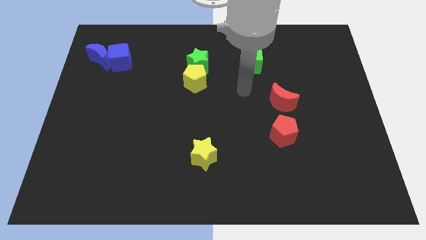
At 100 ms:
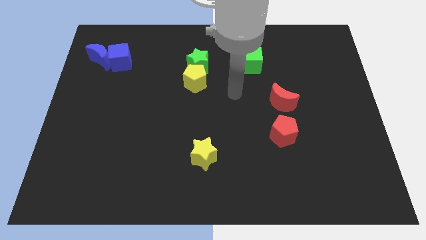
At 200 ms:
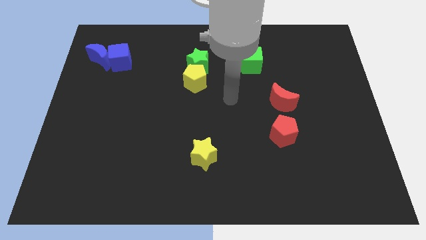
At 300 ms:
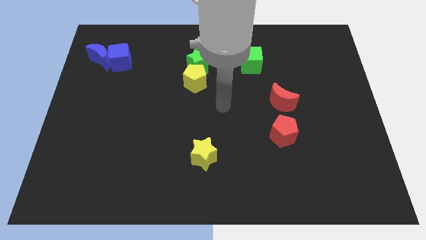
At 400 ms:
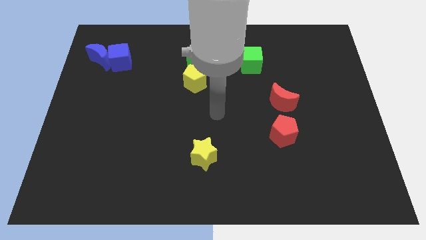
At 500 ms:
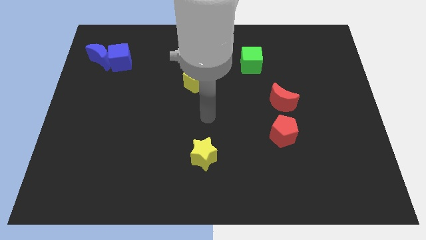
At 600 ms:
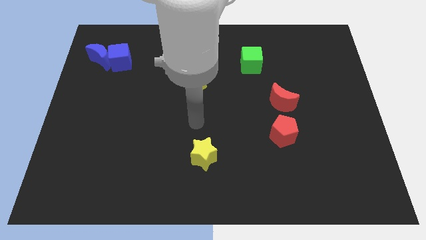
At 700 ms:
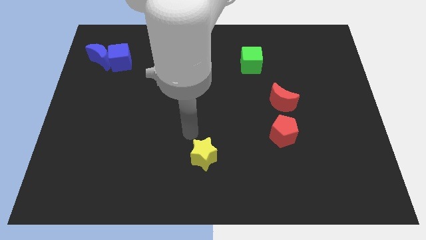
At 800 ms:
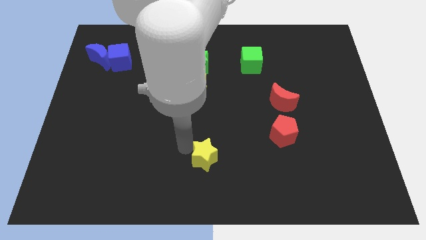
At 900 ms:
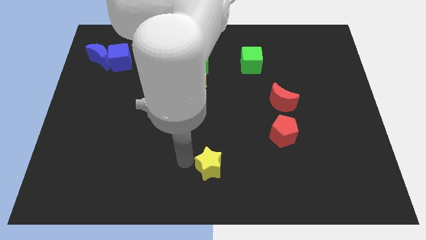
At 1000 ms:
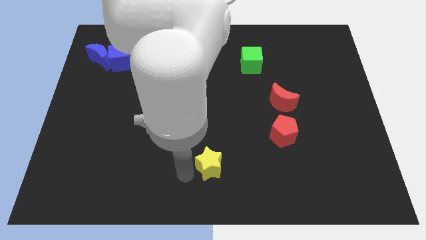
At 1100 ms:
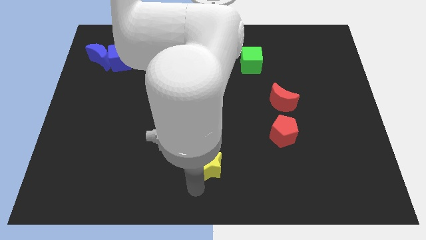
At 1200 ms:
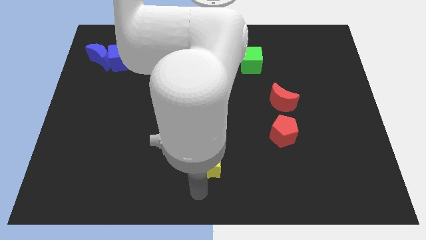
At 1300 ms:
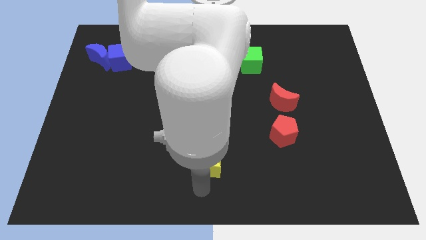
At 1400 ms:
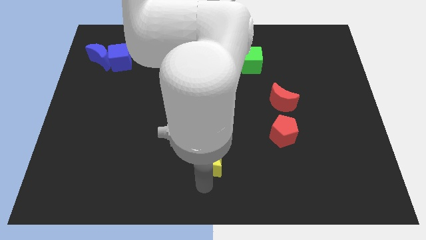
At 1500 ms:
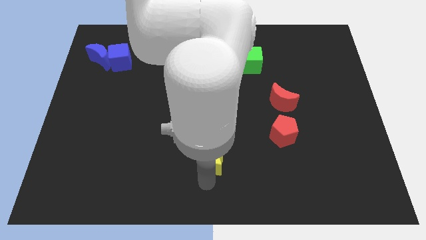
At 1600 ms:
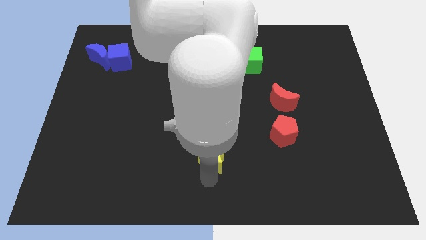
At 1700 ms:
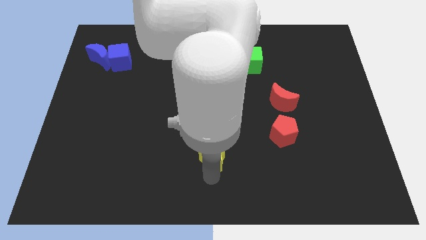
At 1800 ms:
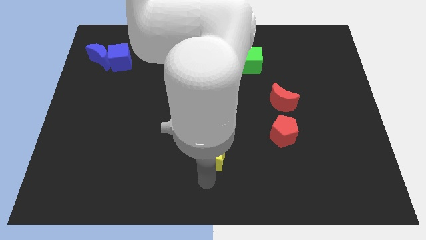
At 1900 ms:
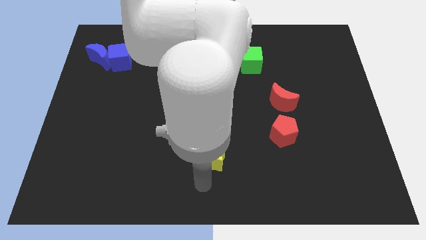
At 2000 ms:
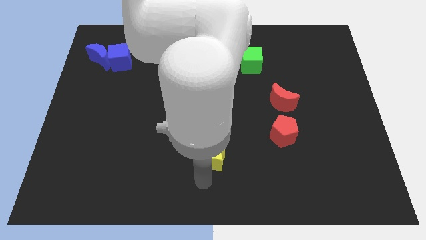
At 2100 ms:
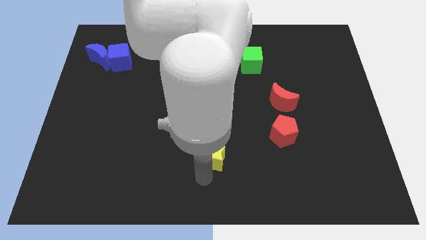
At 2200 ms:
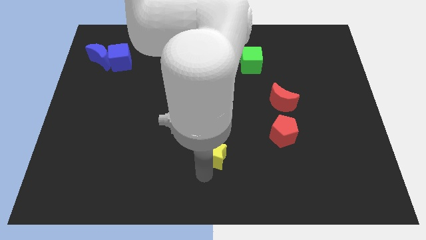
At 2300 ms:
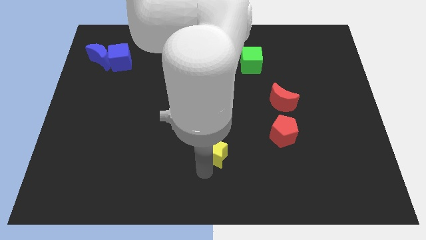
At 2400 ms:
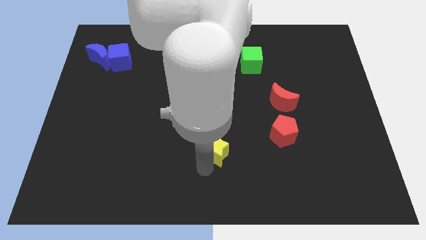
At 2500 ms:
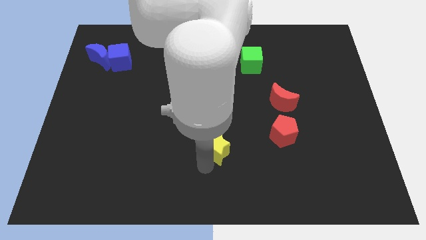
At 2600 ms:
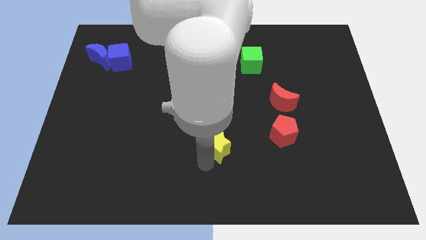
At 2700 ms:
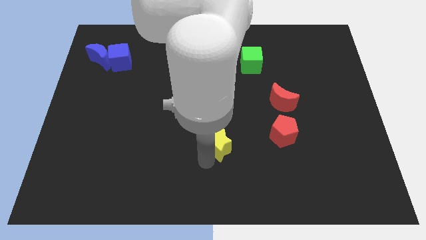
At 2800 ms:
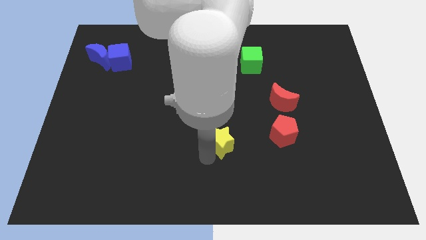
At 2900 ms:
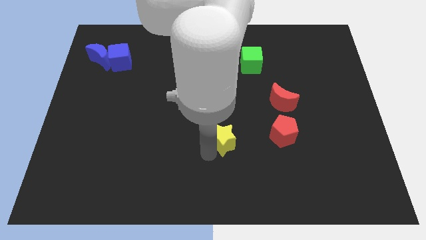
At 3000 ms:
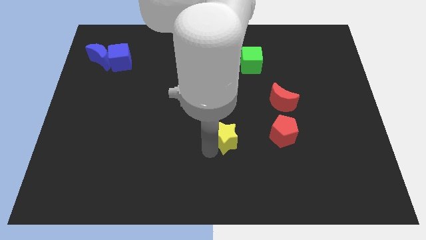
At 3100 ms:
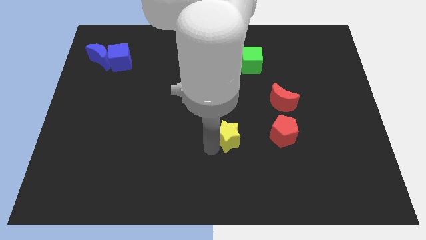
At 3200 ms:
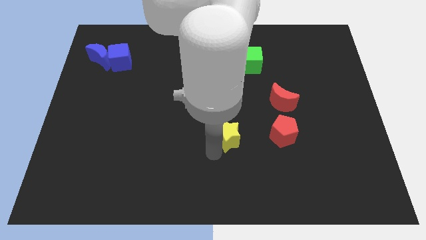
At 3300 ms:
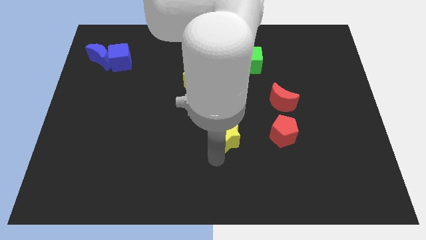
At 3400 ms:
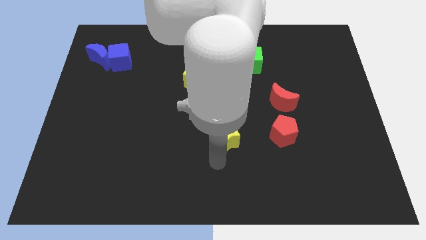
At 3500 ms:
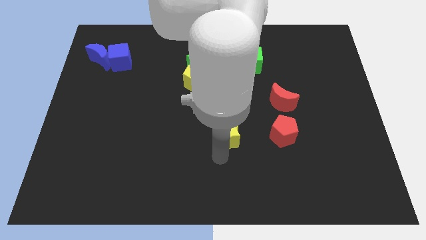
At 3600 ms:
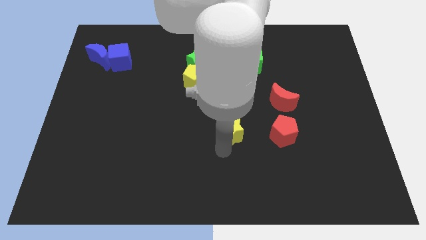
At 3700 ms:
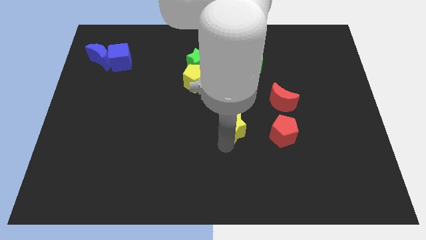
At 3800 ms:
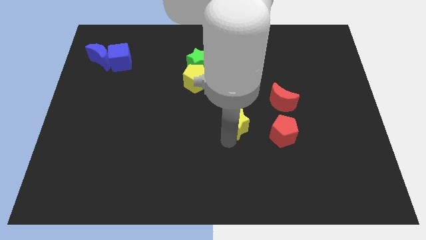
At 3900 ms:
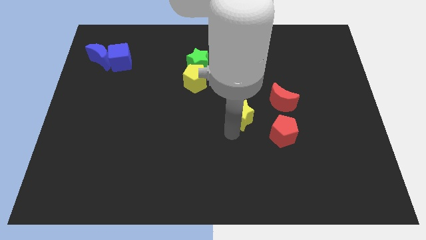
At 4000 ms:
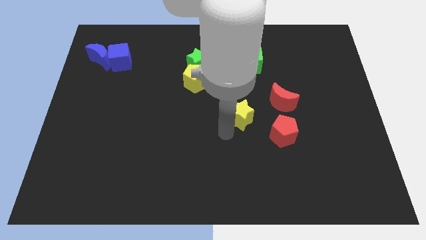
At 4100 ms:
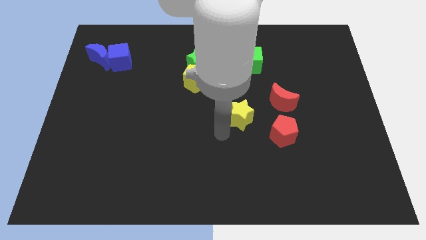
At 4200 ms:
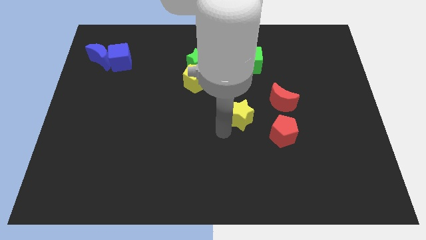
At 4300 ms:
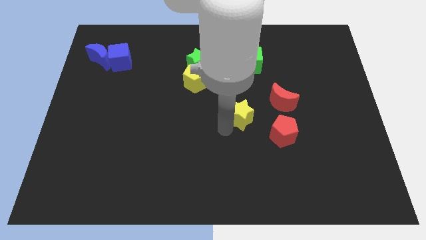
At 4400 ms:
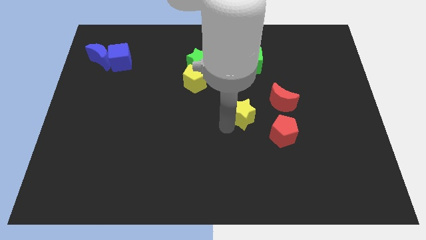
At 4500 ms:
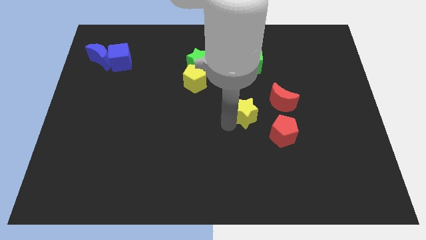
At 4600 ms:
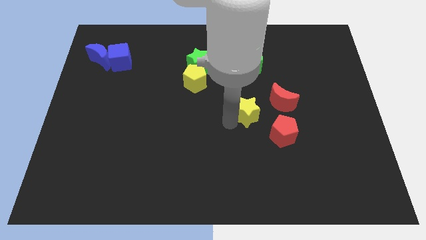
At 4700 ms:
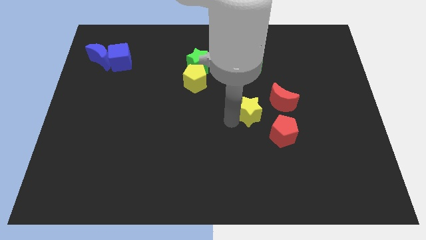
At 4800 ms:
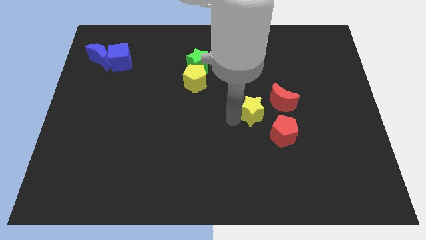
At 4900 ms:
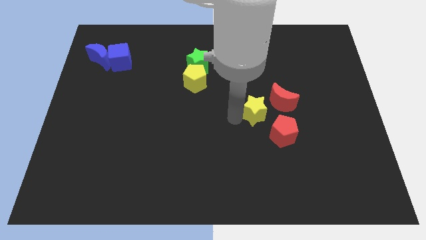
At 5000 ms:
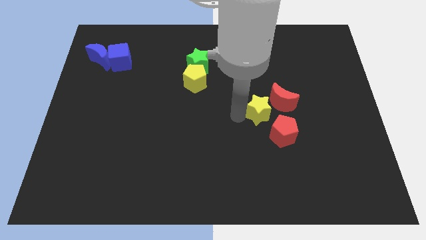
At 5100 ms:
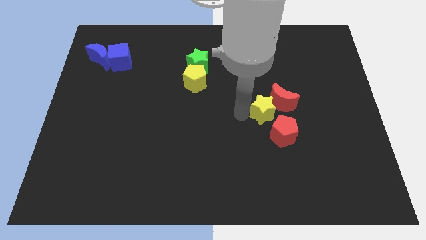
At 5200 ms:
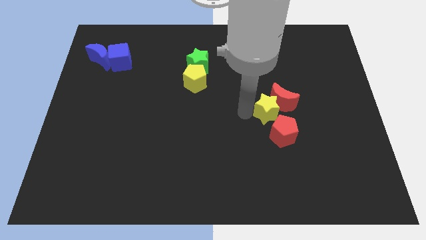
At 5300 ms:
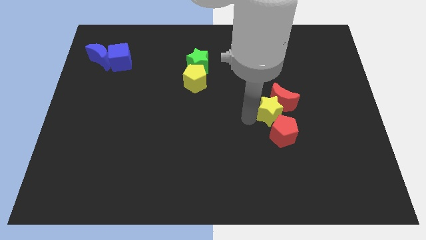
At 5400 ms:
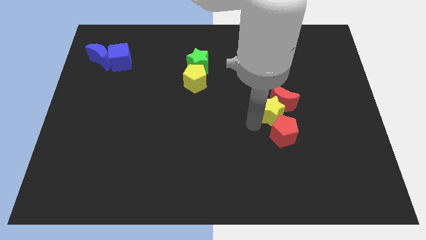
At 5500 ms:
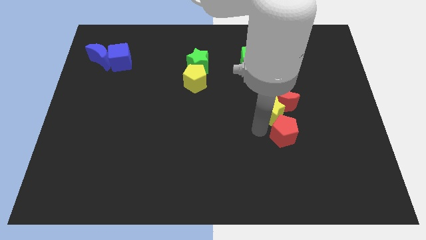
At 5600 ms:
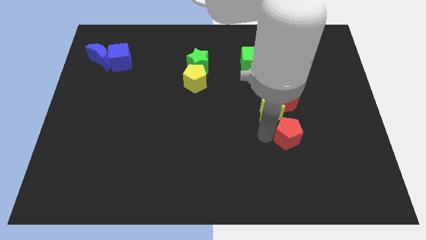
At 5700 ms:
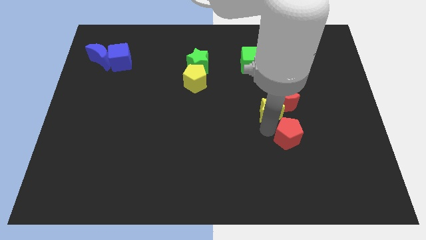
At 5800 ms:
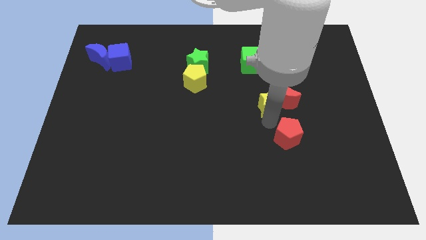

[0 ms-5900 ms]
push the yellow star up and to the right diagonally

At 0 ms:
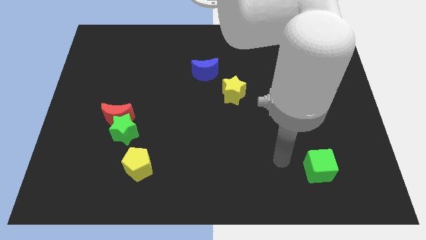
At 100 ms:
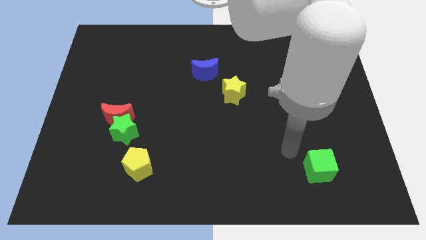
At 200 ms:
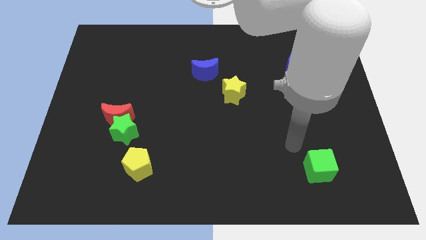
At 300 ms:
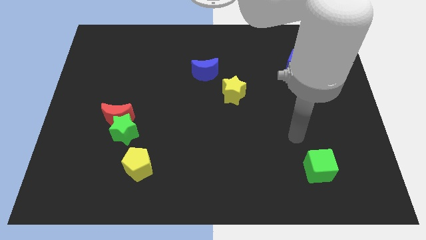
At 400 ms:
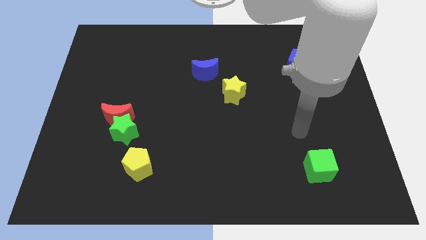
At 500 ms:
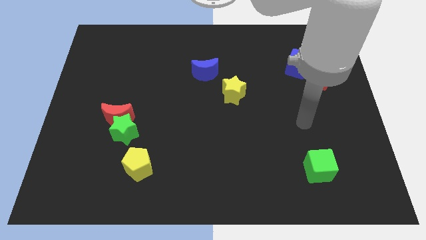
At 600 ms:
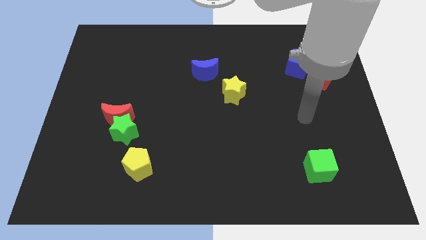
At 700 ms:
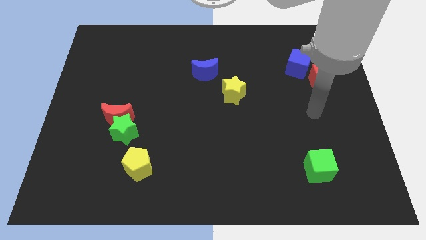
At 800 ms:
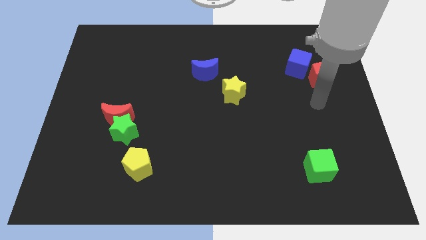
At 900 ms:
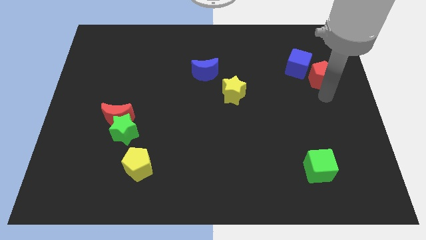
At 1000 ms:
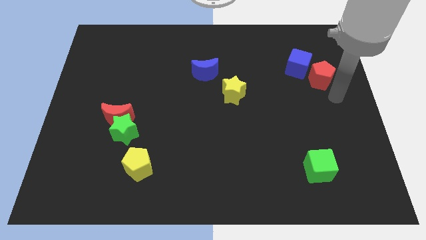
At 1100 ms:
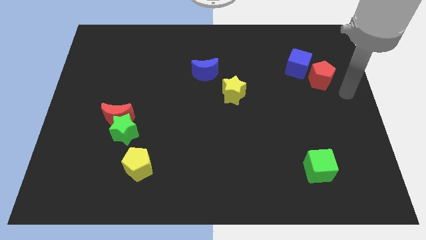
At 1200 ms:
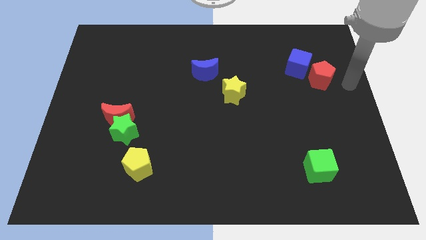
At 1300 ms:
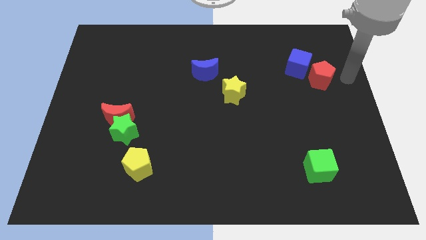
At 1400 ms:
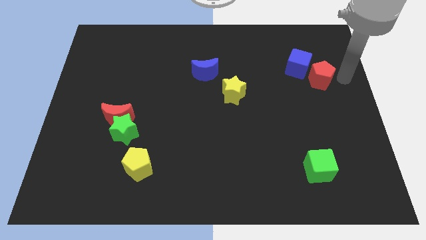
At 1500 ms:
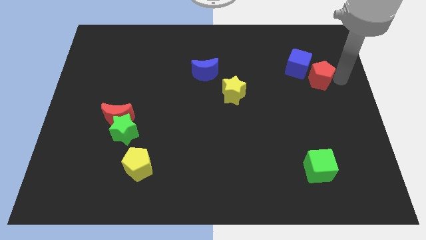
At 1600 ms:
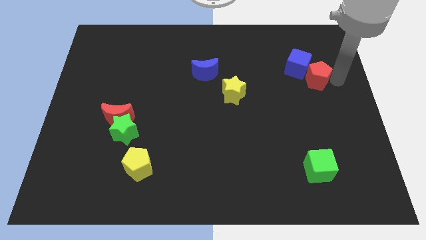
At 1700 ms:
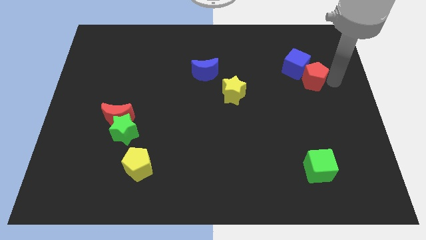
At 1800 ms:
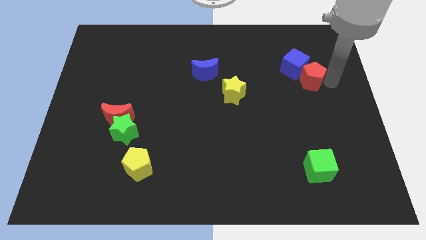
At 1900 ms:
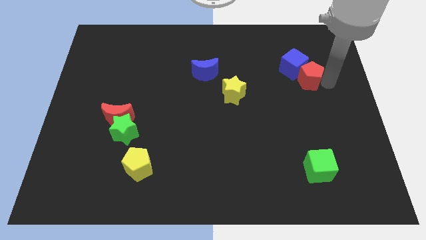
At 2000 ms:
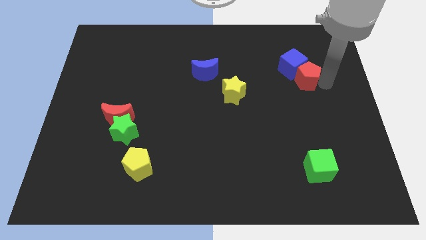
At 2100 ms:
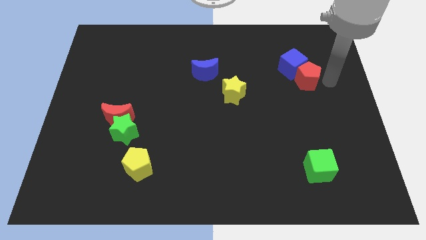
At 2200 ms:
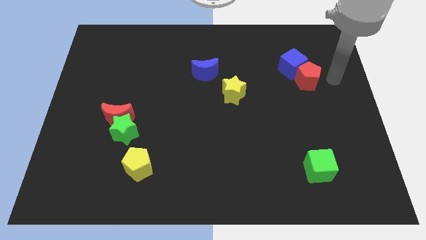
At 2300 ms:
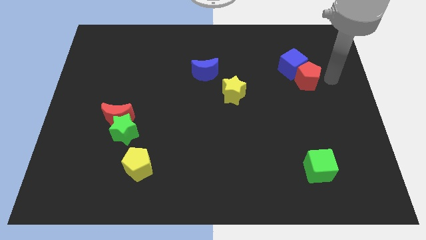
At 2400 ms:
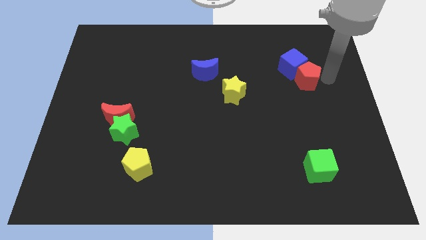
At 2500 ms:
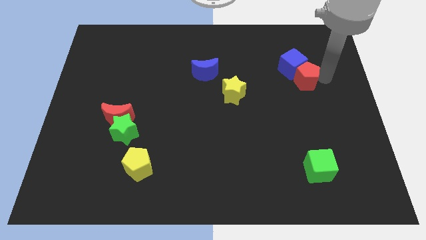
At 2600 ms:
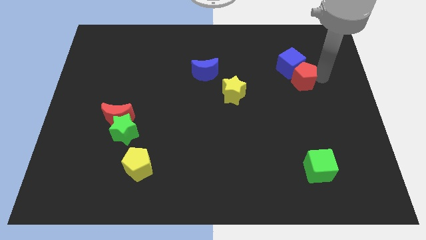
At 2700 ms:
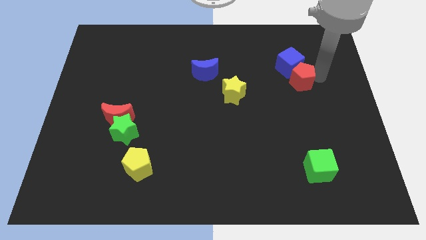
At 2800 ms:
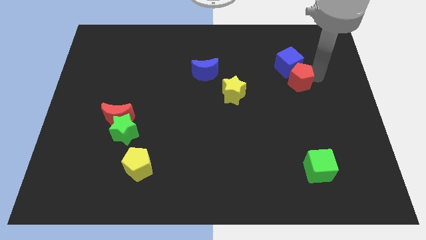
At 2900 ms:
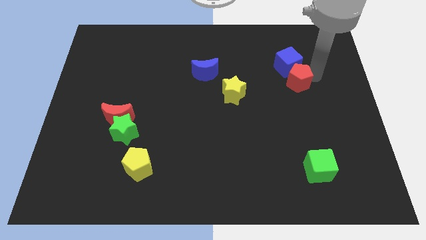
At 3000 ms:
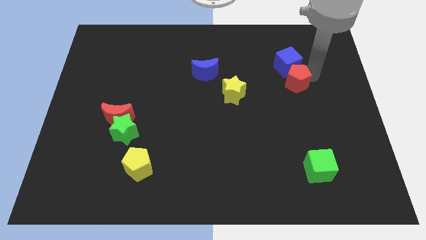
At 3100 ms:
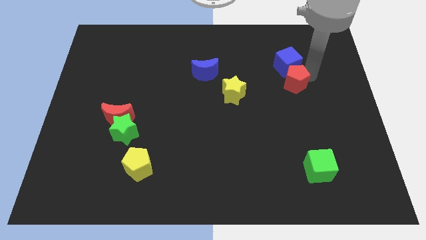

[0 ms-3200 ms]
slightly move the red pentagon to the left
